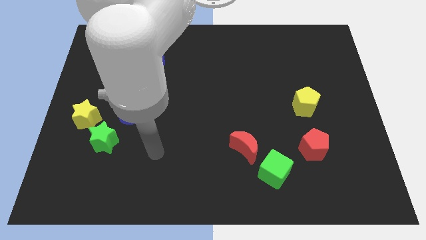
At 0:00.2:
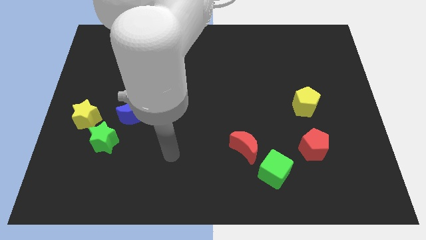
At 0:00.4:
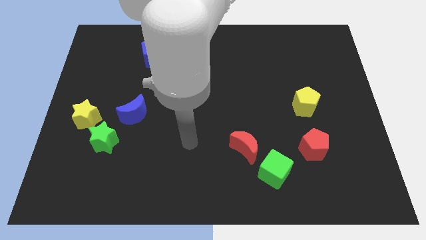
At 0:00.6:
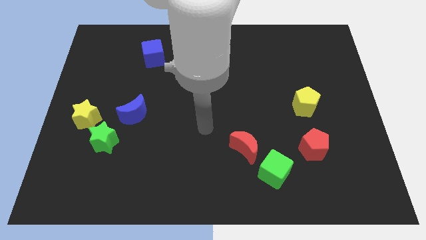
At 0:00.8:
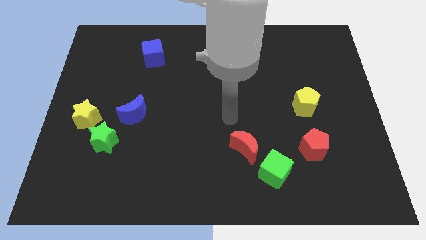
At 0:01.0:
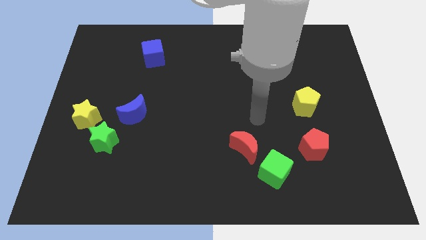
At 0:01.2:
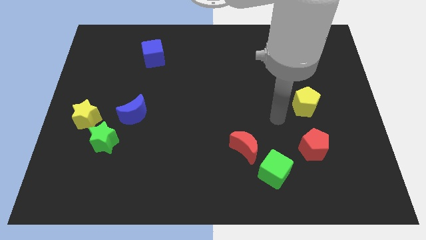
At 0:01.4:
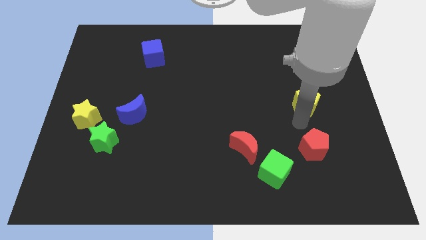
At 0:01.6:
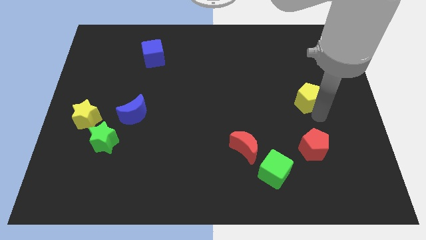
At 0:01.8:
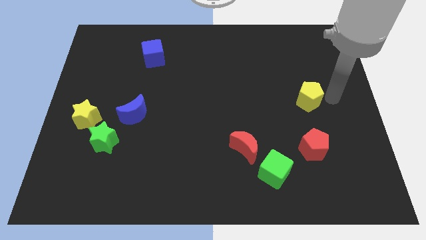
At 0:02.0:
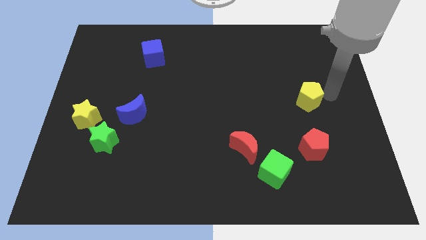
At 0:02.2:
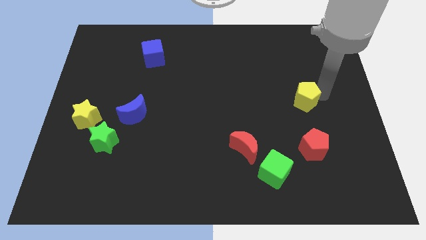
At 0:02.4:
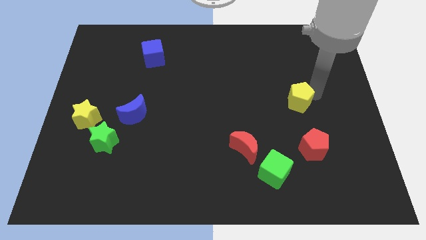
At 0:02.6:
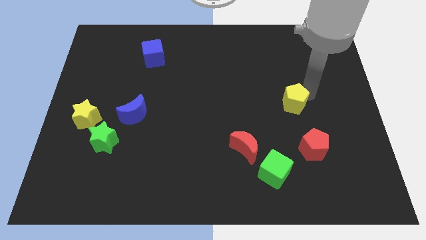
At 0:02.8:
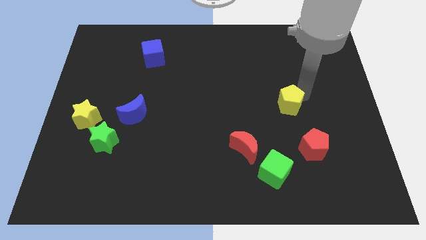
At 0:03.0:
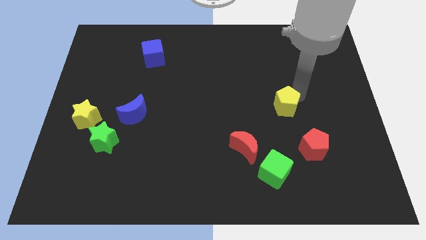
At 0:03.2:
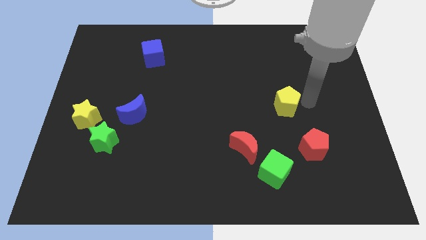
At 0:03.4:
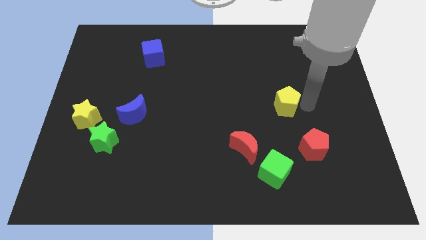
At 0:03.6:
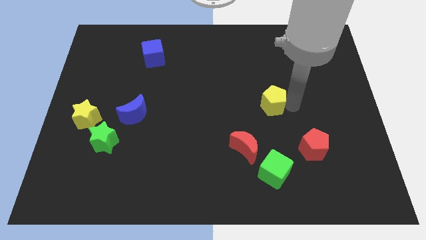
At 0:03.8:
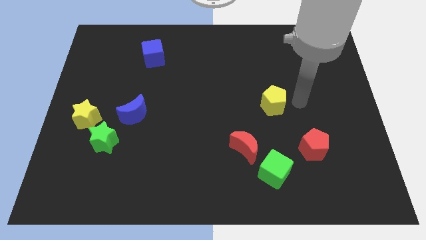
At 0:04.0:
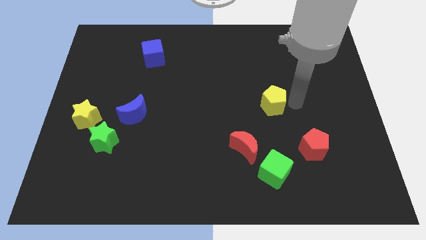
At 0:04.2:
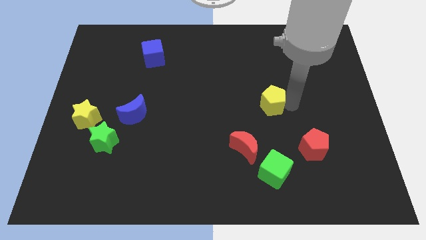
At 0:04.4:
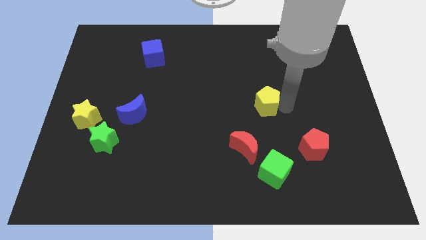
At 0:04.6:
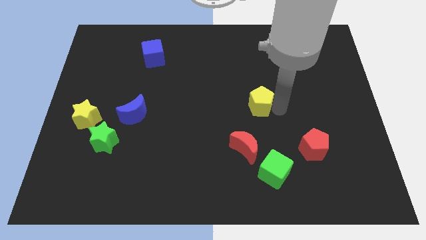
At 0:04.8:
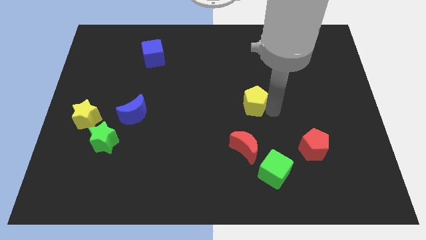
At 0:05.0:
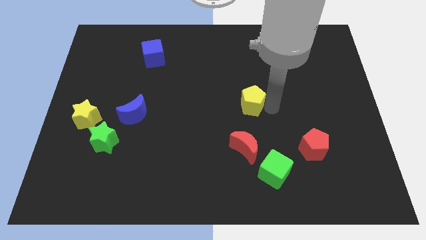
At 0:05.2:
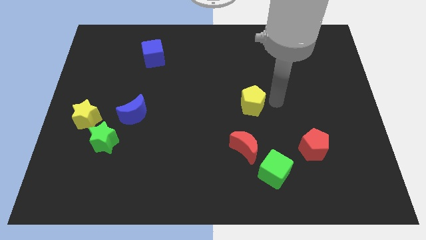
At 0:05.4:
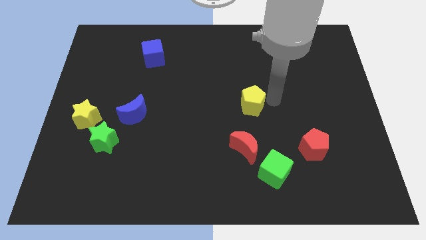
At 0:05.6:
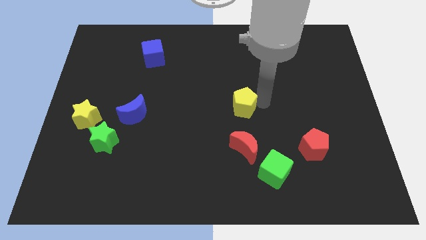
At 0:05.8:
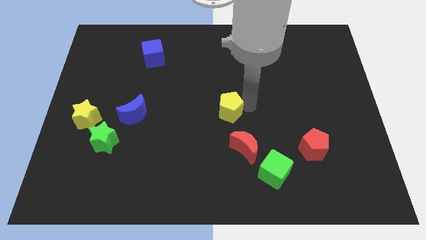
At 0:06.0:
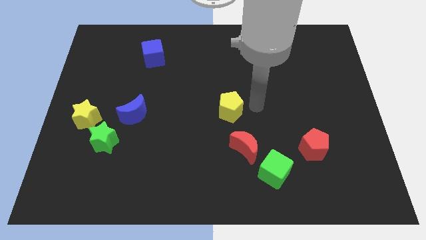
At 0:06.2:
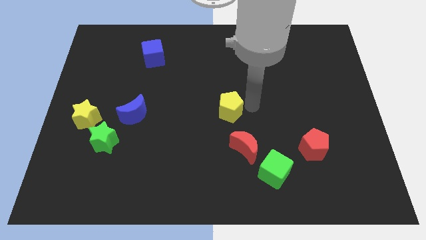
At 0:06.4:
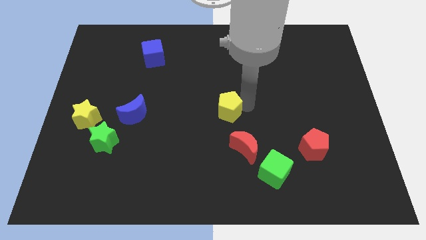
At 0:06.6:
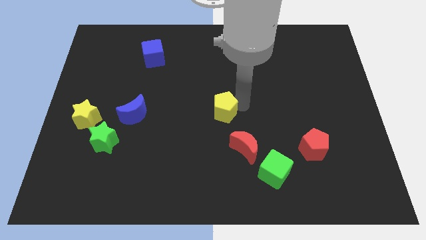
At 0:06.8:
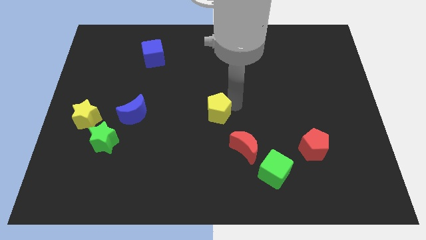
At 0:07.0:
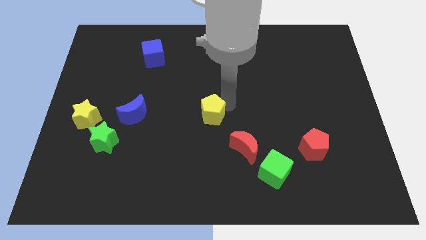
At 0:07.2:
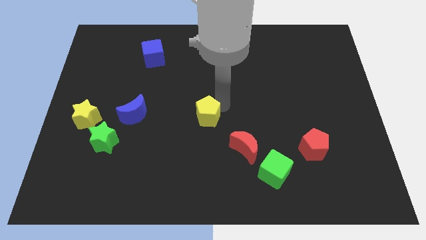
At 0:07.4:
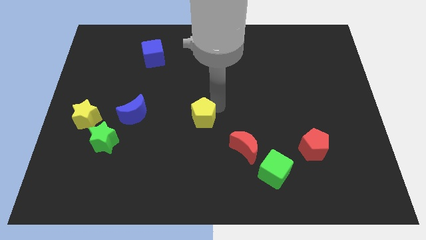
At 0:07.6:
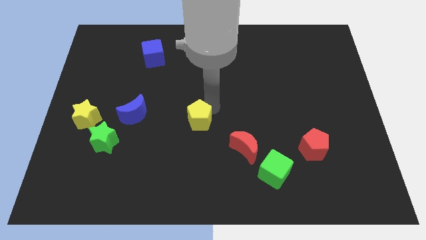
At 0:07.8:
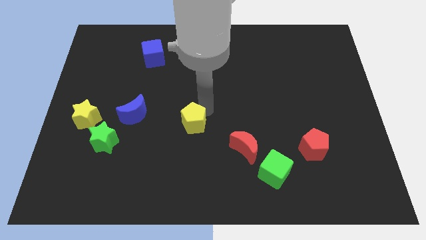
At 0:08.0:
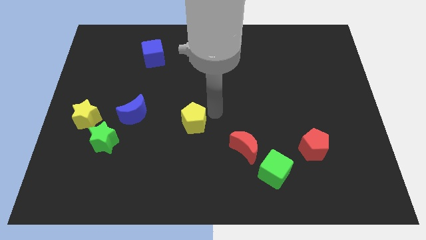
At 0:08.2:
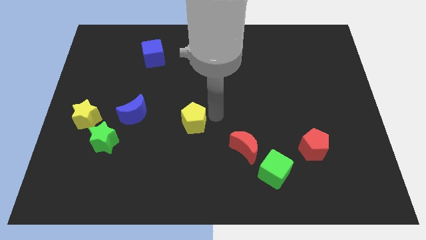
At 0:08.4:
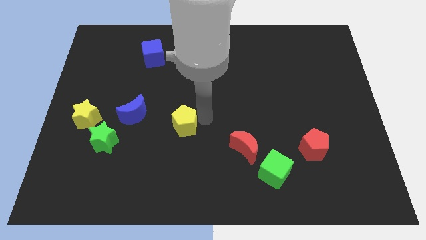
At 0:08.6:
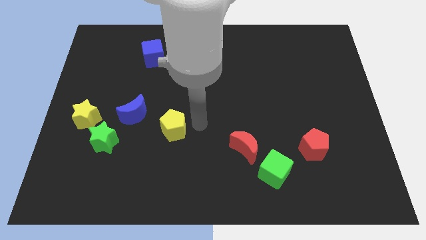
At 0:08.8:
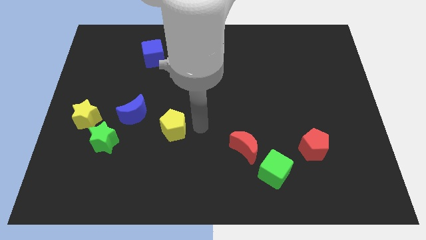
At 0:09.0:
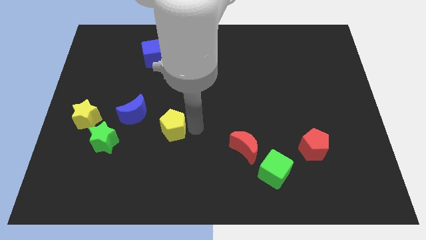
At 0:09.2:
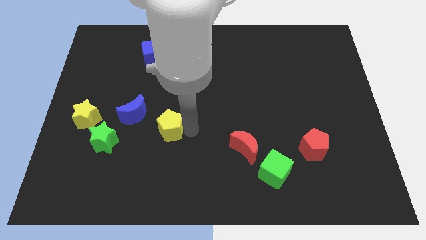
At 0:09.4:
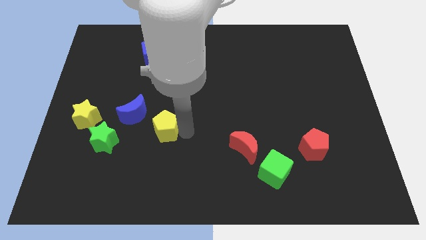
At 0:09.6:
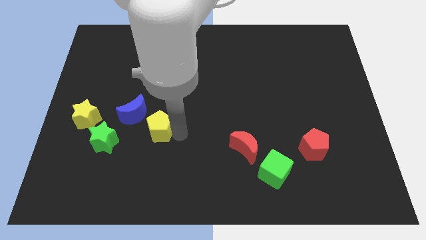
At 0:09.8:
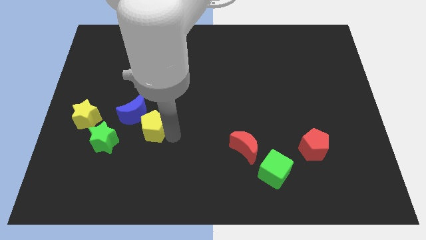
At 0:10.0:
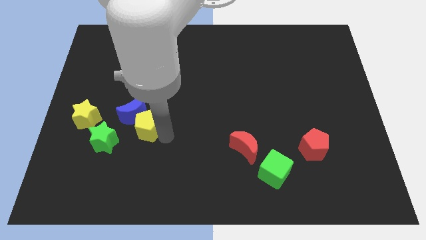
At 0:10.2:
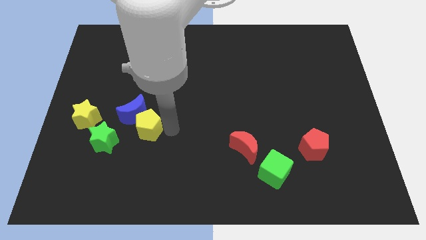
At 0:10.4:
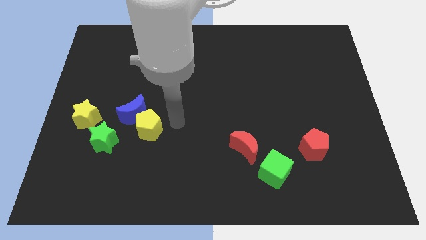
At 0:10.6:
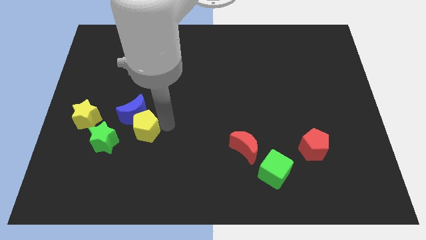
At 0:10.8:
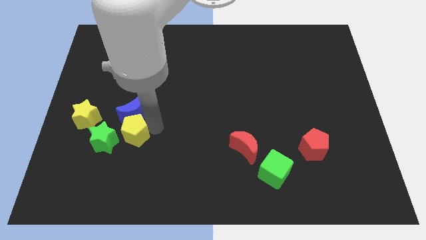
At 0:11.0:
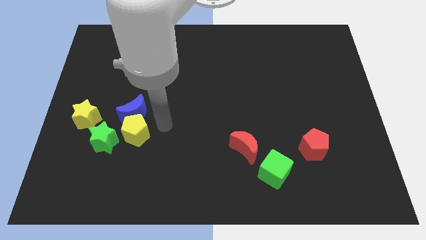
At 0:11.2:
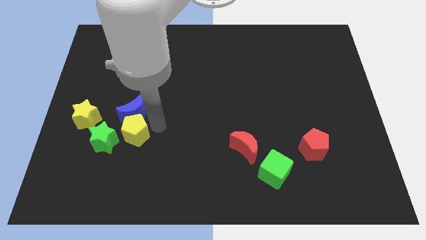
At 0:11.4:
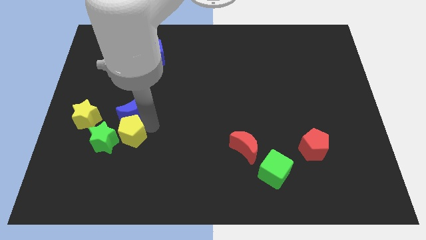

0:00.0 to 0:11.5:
push the yellow pentagon close to the green star
